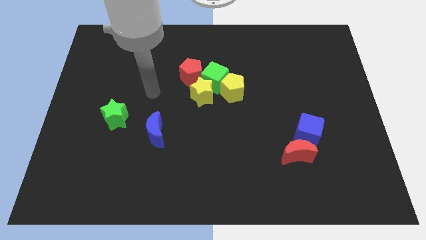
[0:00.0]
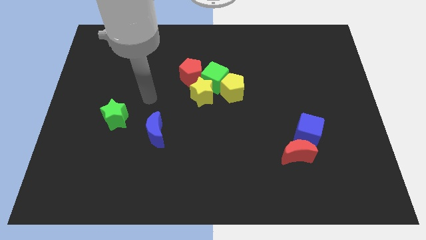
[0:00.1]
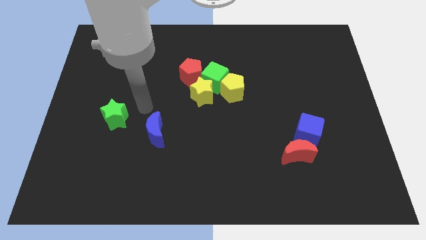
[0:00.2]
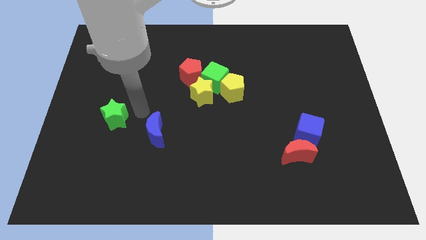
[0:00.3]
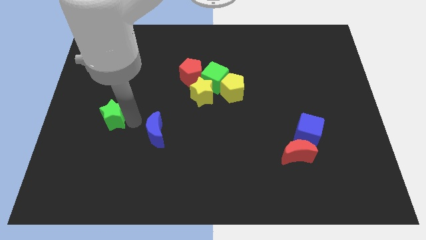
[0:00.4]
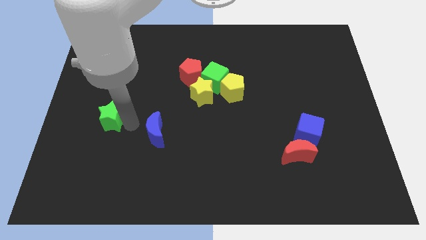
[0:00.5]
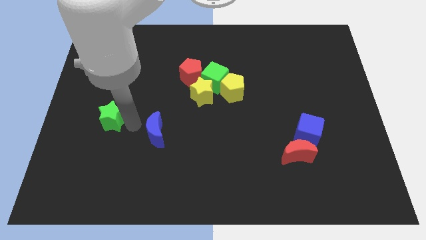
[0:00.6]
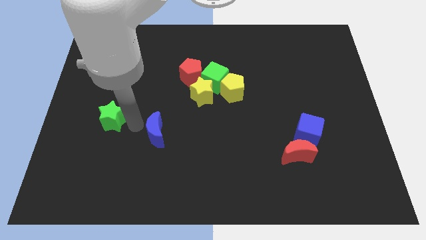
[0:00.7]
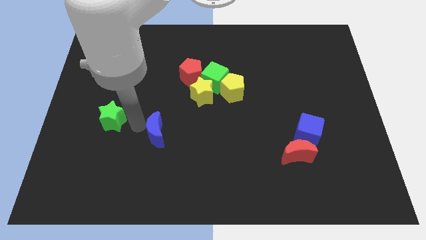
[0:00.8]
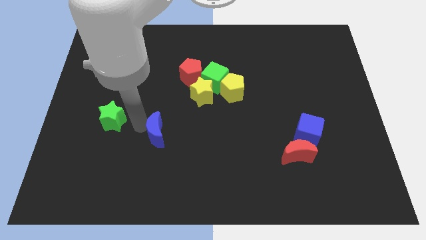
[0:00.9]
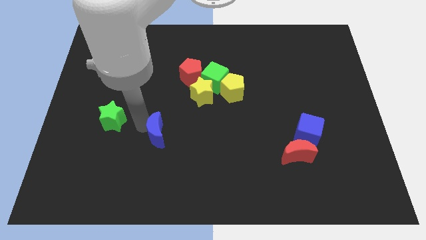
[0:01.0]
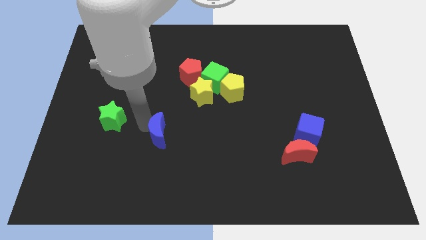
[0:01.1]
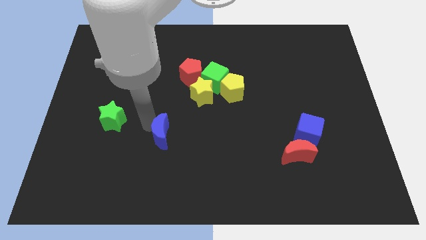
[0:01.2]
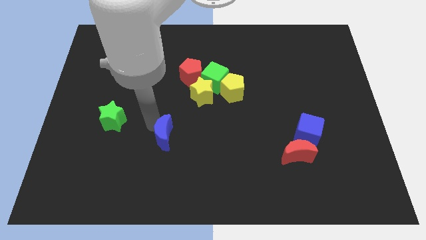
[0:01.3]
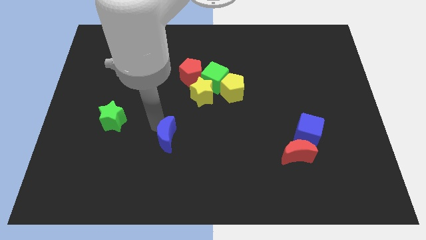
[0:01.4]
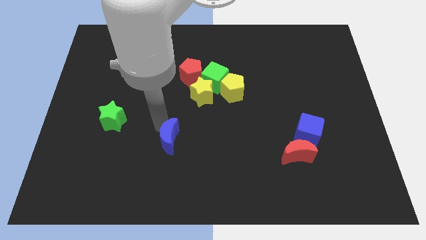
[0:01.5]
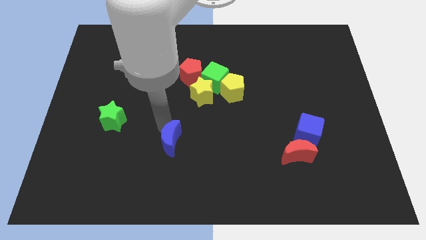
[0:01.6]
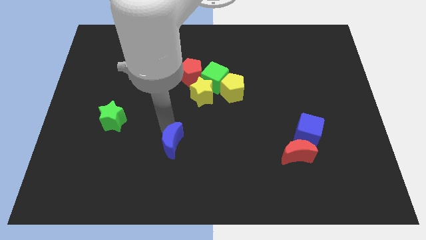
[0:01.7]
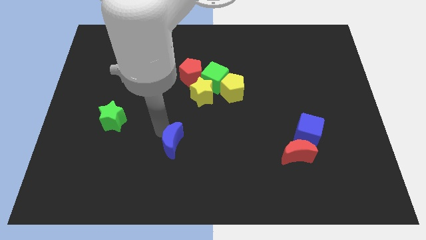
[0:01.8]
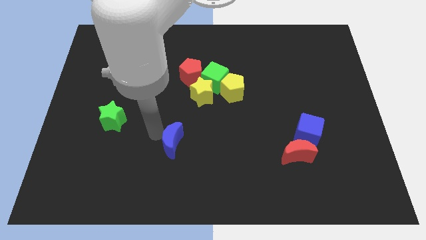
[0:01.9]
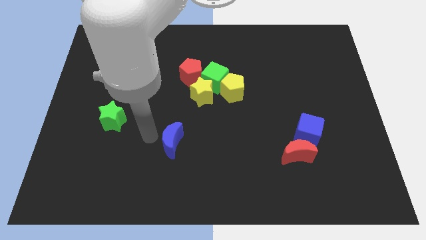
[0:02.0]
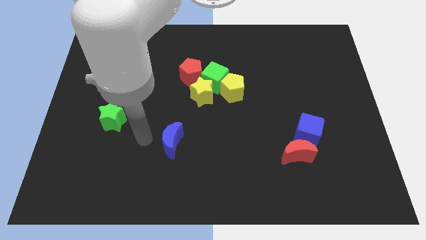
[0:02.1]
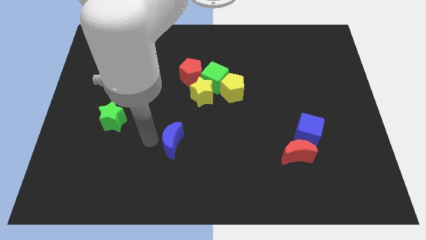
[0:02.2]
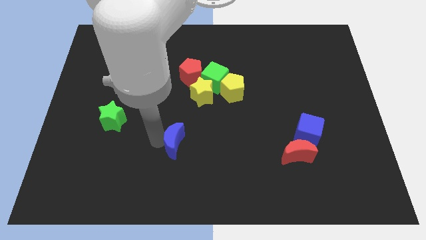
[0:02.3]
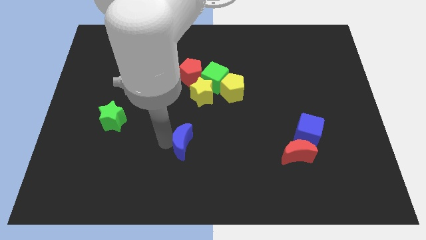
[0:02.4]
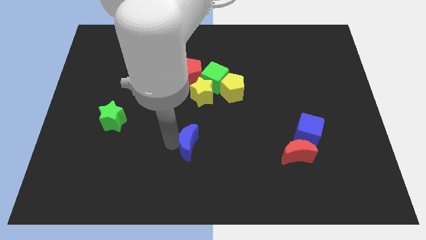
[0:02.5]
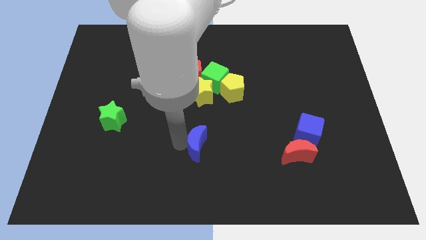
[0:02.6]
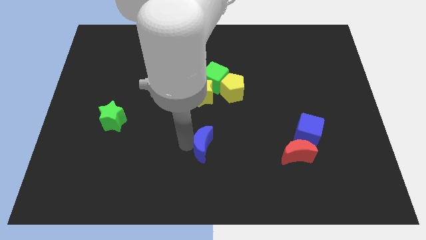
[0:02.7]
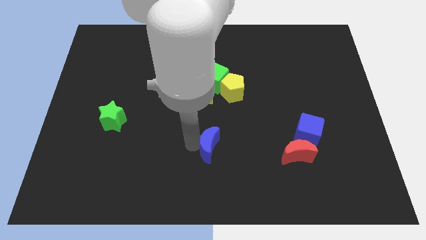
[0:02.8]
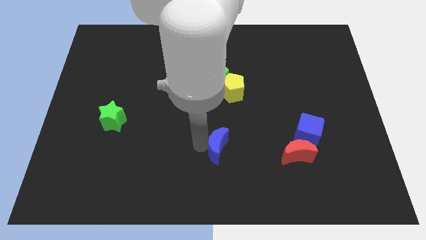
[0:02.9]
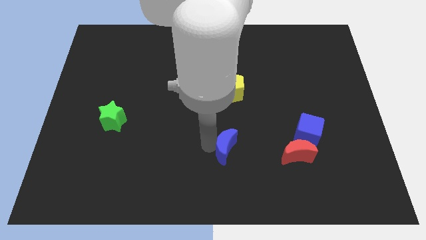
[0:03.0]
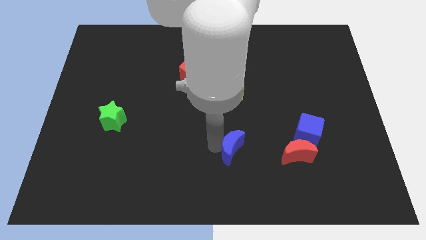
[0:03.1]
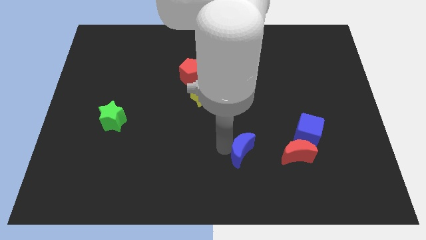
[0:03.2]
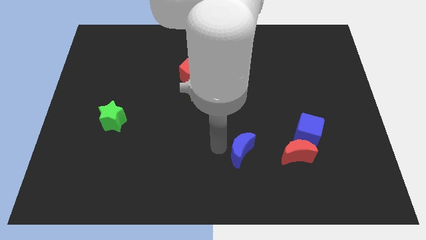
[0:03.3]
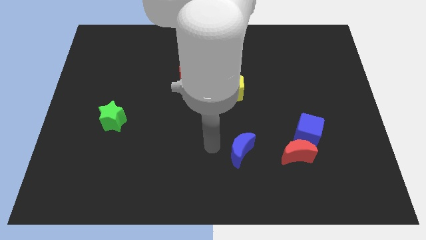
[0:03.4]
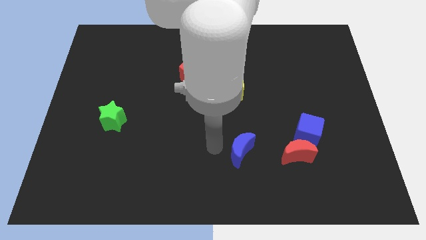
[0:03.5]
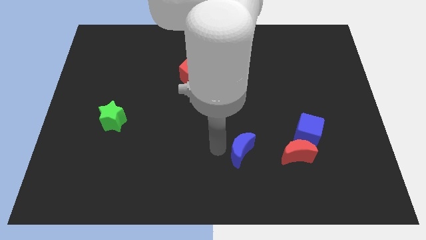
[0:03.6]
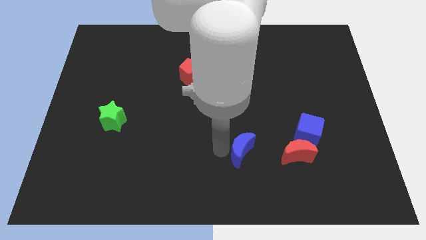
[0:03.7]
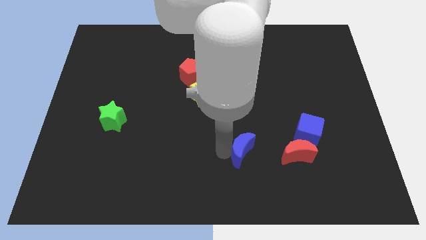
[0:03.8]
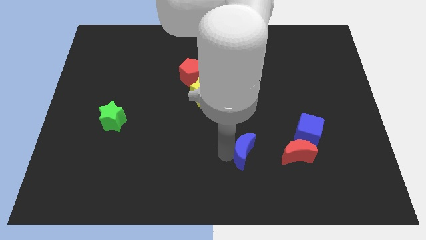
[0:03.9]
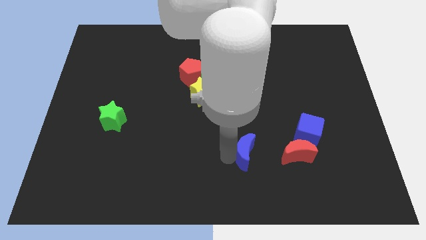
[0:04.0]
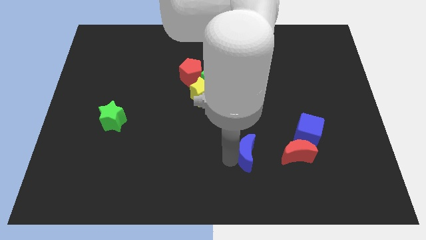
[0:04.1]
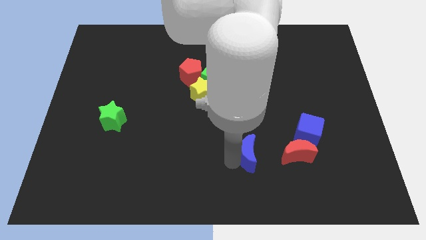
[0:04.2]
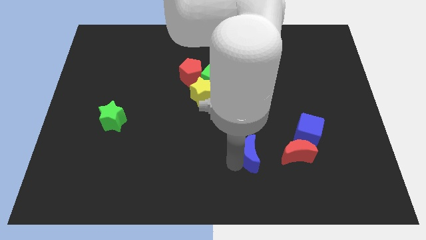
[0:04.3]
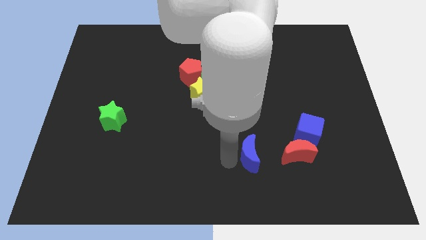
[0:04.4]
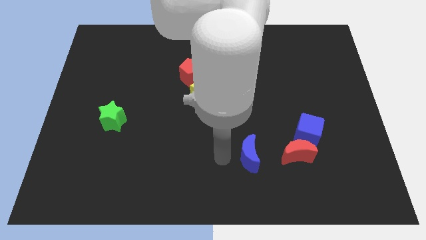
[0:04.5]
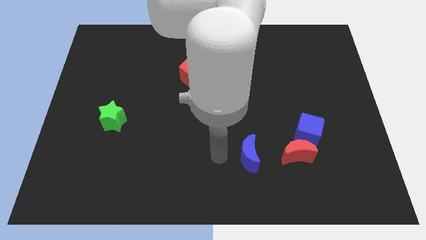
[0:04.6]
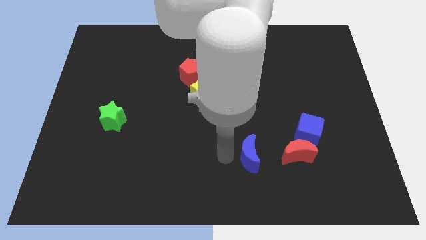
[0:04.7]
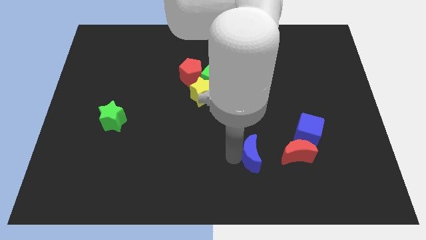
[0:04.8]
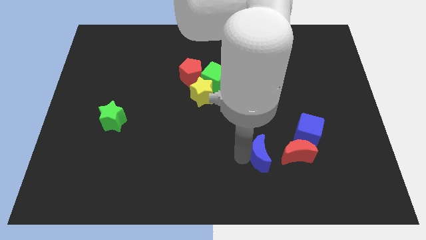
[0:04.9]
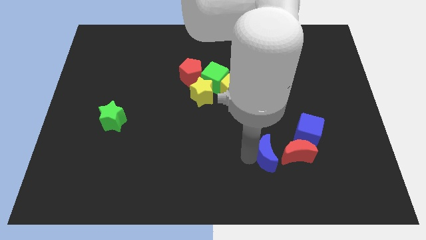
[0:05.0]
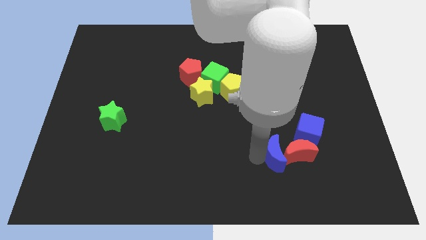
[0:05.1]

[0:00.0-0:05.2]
move the blue moon towards the red moon

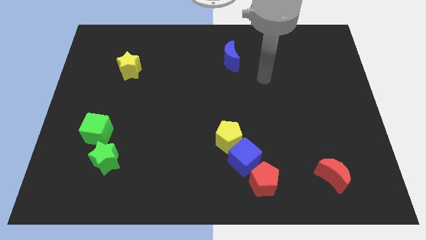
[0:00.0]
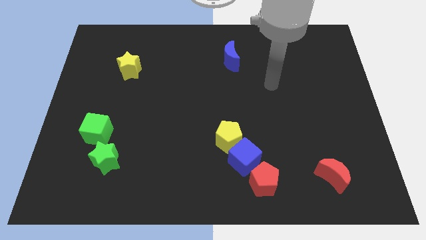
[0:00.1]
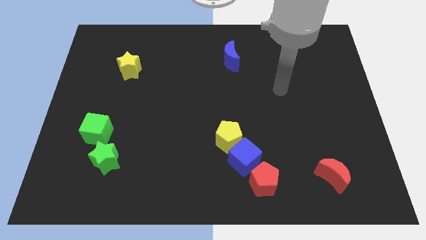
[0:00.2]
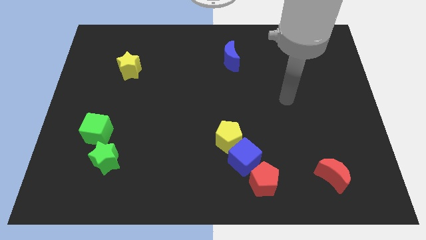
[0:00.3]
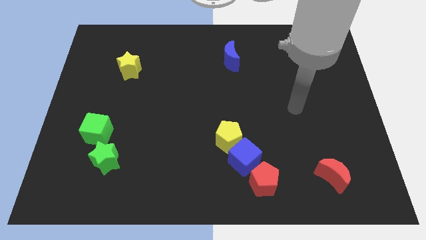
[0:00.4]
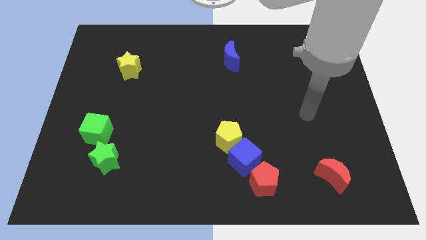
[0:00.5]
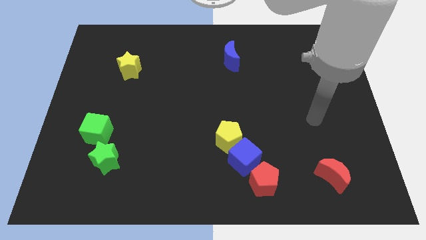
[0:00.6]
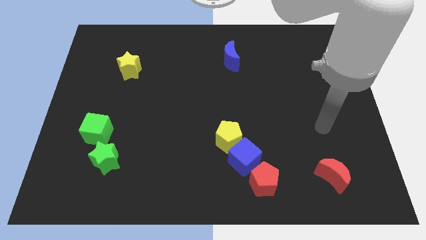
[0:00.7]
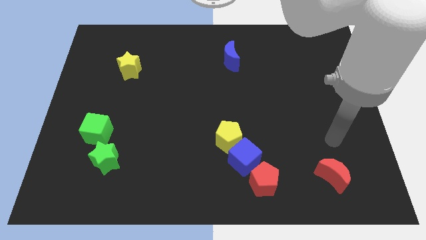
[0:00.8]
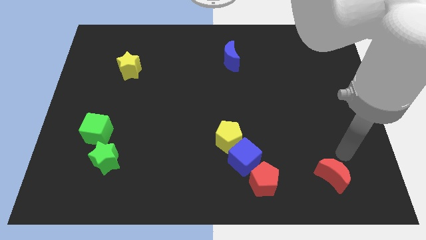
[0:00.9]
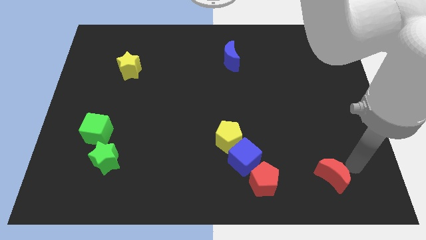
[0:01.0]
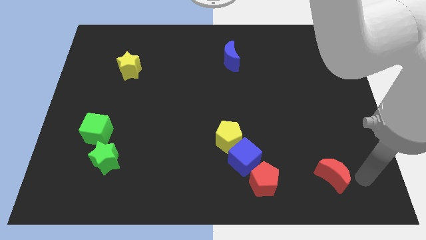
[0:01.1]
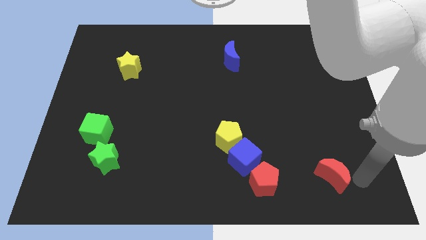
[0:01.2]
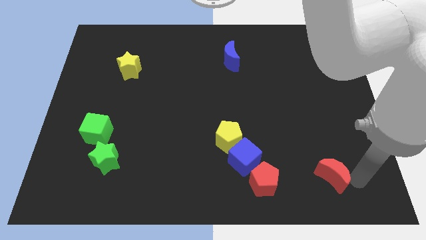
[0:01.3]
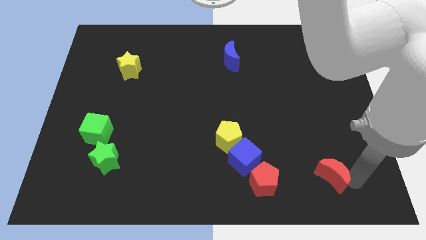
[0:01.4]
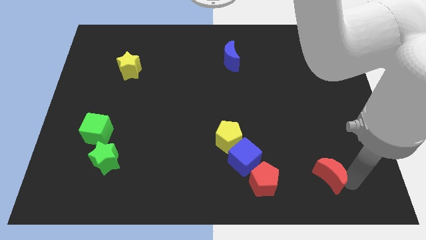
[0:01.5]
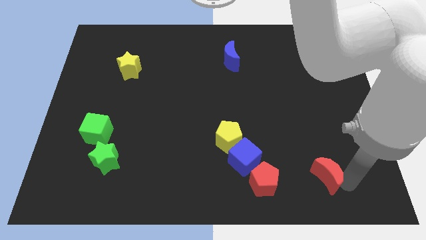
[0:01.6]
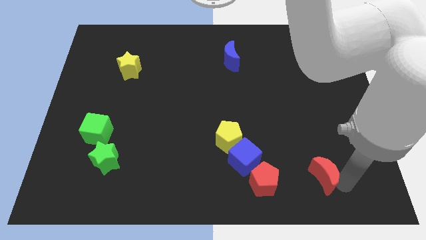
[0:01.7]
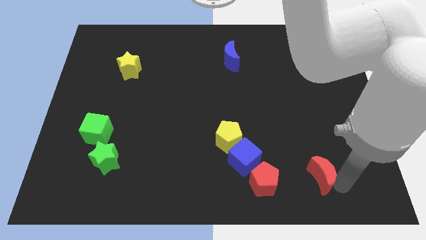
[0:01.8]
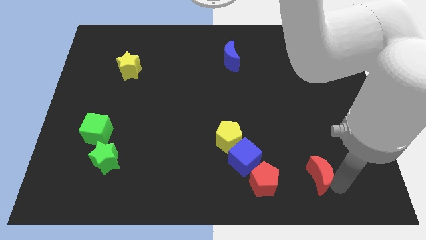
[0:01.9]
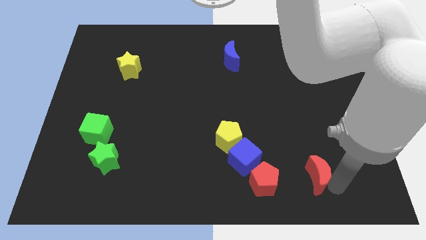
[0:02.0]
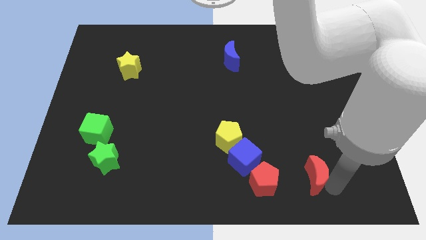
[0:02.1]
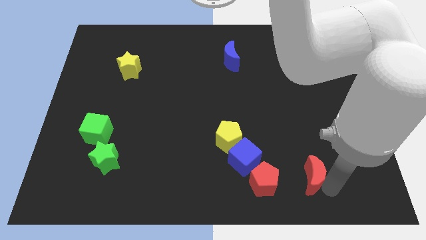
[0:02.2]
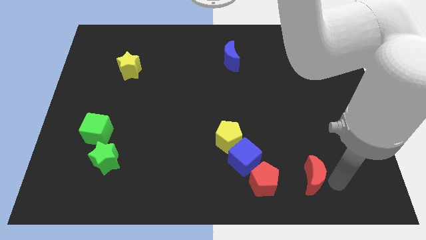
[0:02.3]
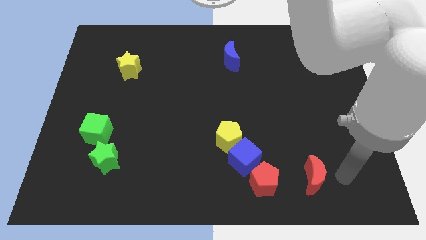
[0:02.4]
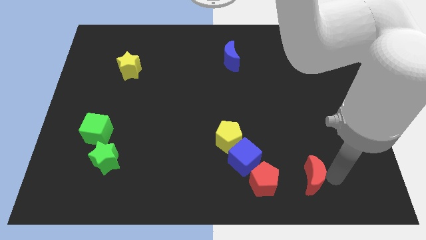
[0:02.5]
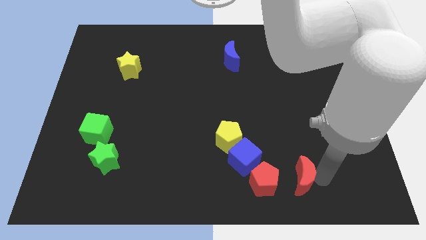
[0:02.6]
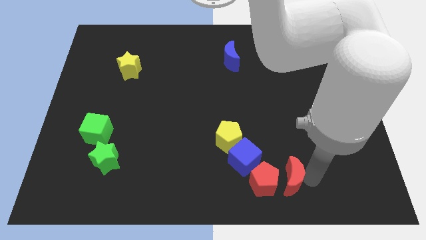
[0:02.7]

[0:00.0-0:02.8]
put the red moon towards the red pentagon
